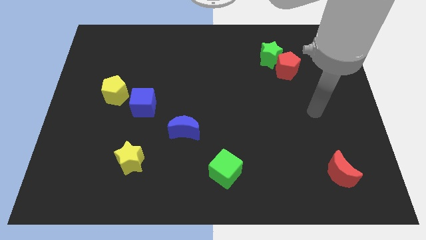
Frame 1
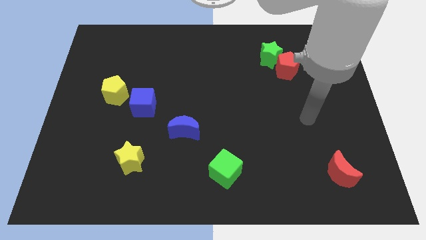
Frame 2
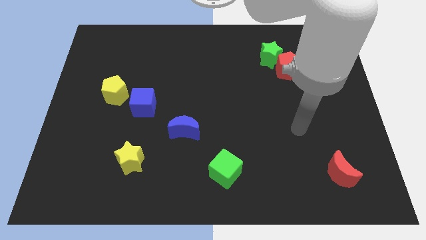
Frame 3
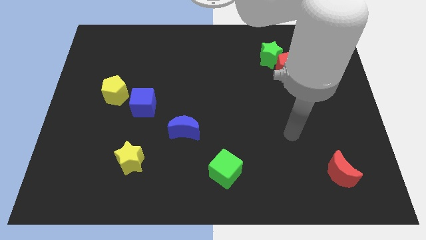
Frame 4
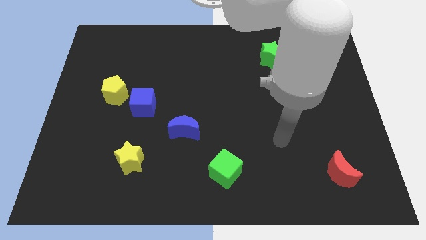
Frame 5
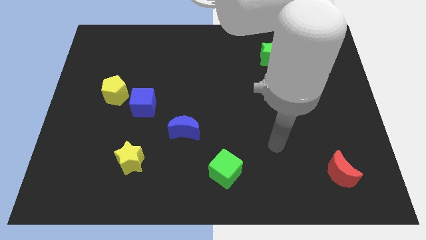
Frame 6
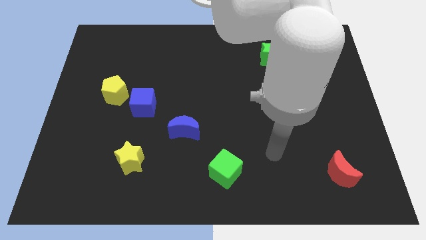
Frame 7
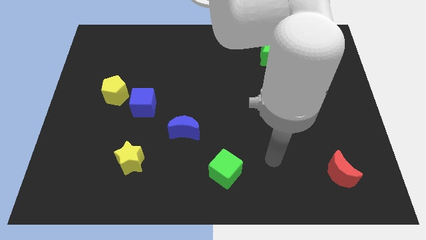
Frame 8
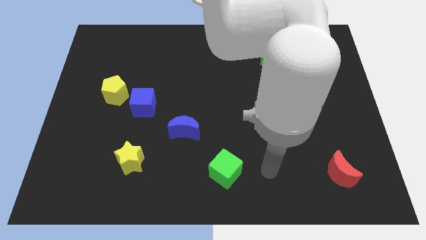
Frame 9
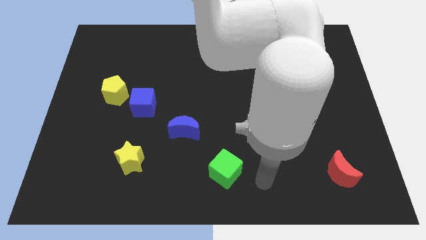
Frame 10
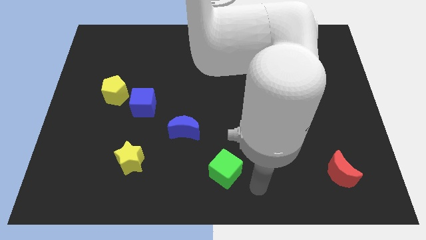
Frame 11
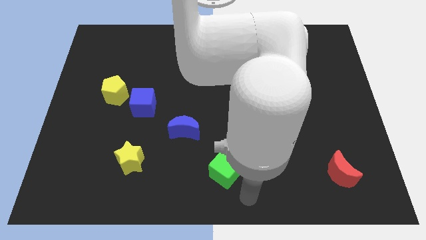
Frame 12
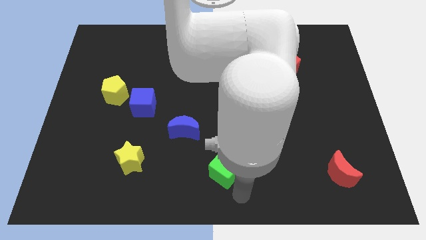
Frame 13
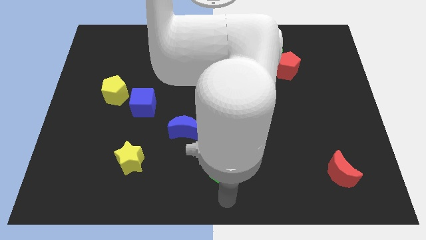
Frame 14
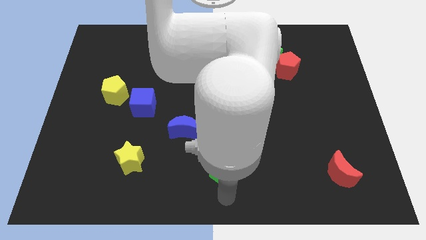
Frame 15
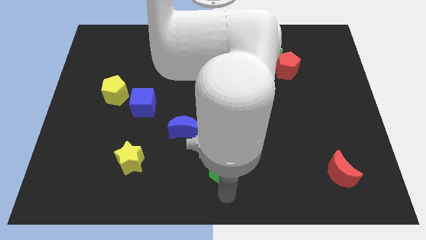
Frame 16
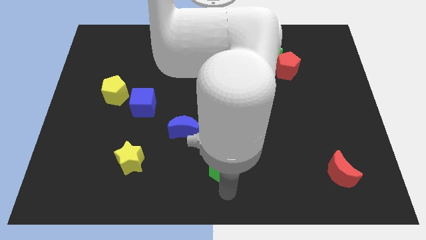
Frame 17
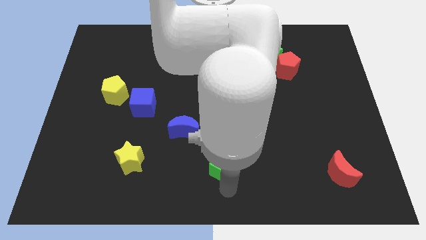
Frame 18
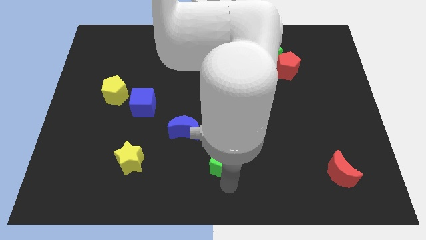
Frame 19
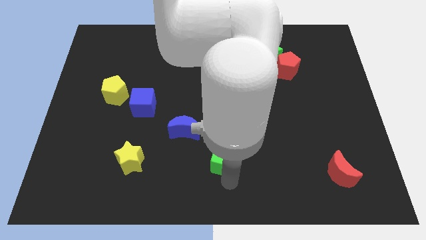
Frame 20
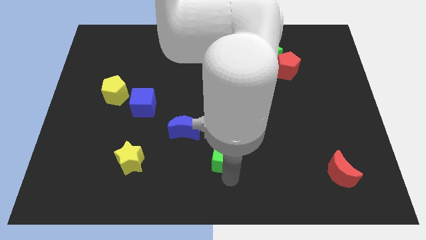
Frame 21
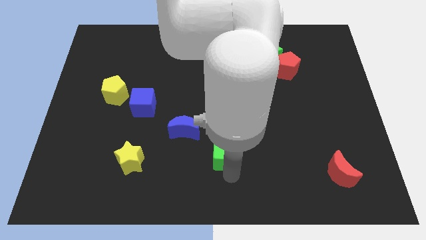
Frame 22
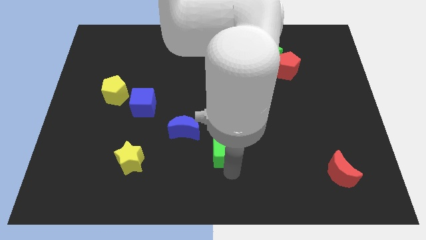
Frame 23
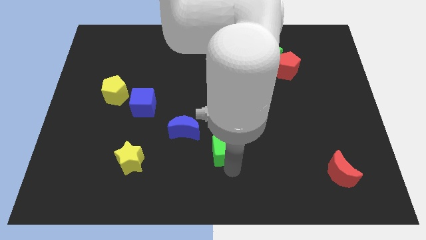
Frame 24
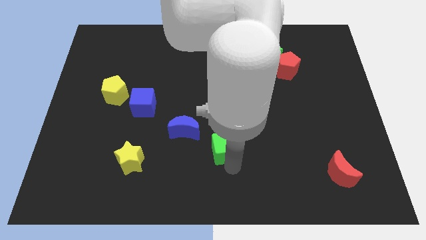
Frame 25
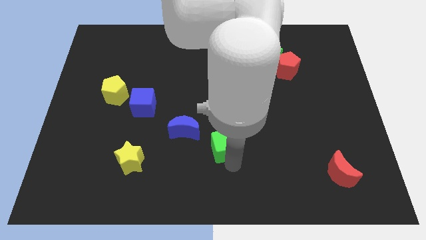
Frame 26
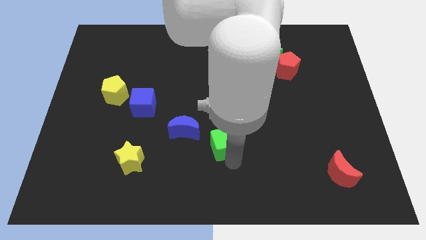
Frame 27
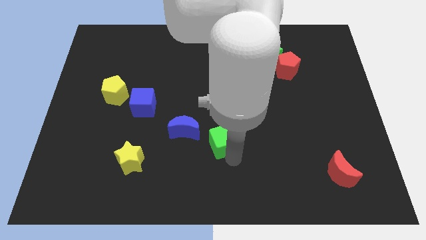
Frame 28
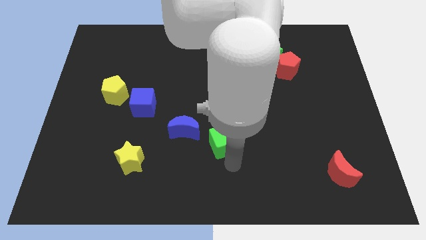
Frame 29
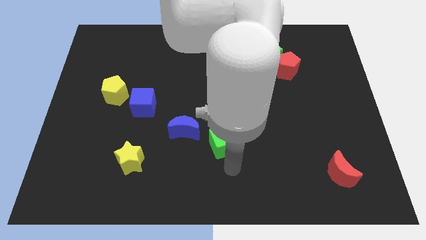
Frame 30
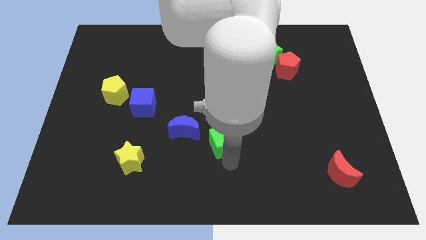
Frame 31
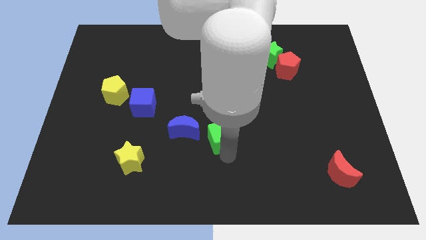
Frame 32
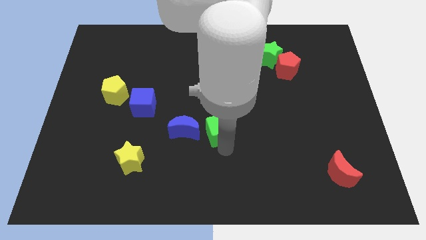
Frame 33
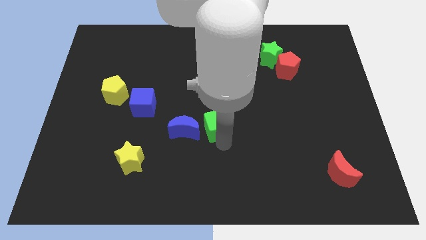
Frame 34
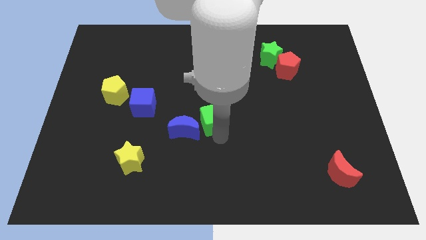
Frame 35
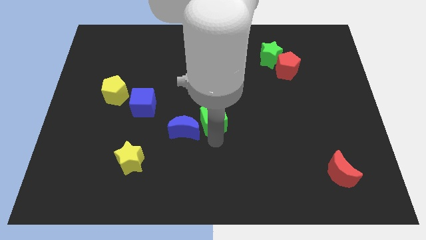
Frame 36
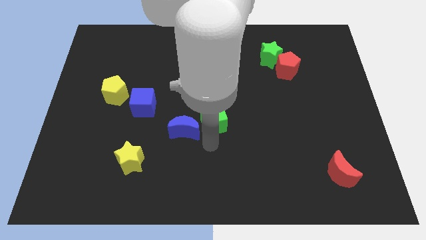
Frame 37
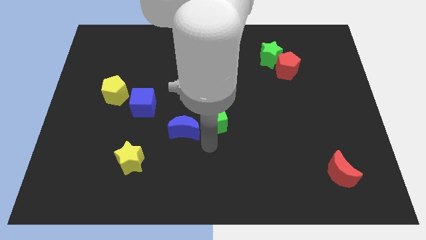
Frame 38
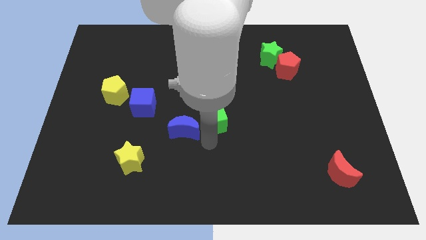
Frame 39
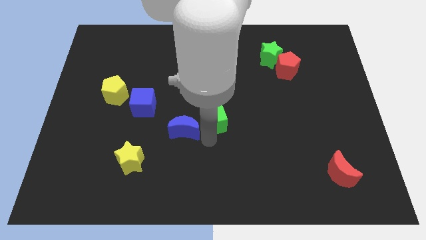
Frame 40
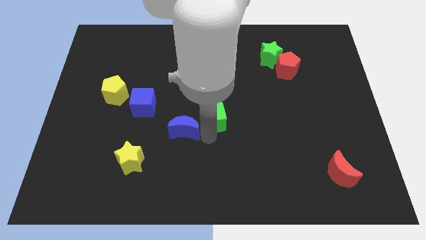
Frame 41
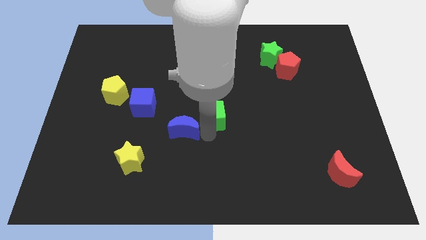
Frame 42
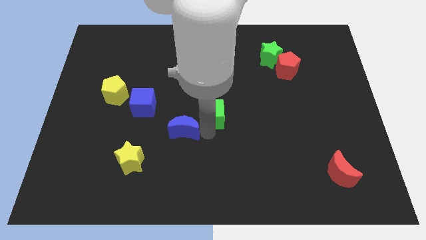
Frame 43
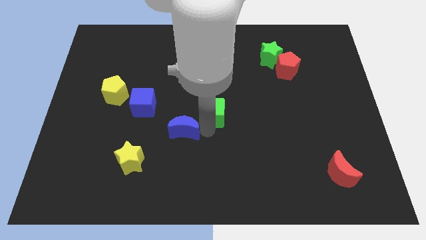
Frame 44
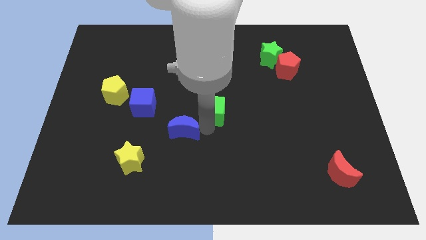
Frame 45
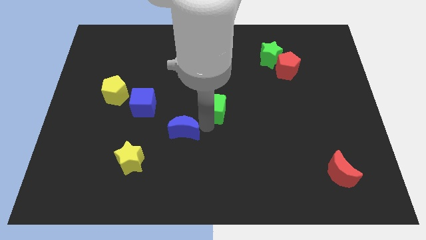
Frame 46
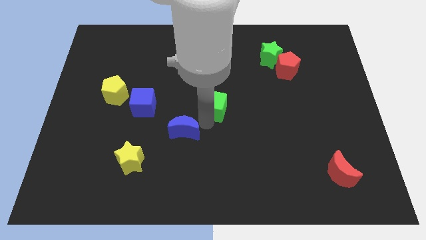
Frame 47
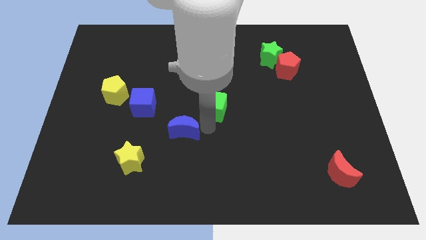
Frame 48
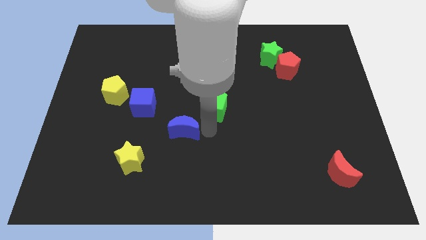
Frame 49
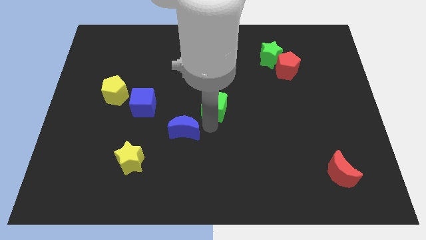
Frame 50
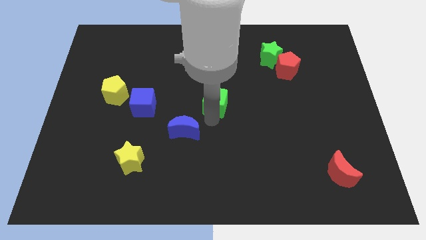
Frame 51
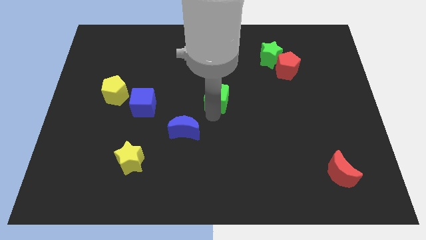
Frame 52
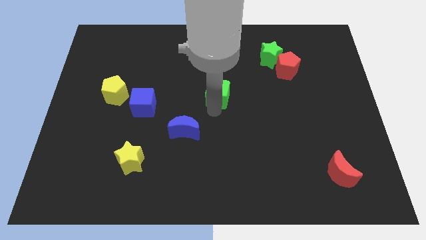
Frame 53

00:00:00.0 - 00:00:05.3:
slide the green cube upwards

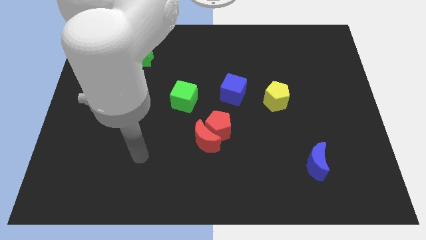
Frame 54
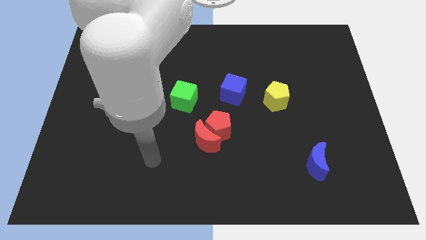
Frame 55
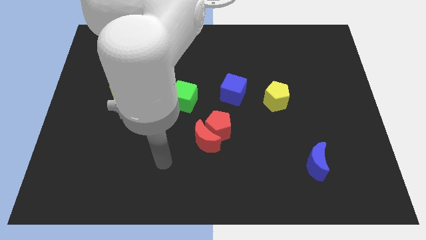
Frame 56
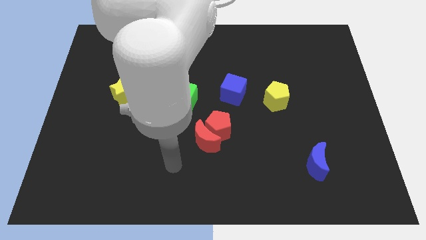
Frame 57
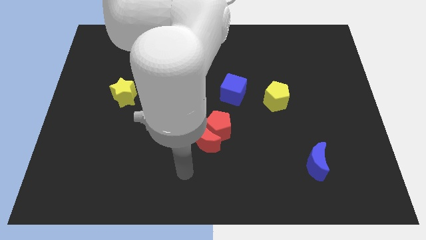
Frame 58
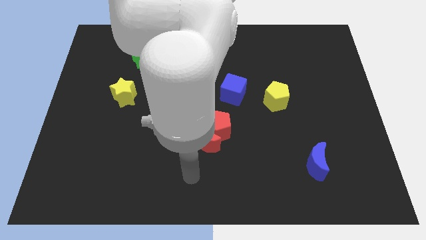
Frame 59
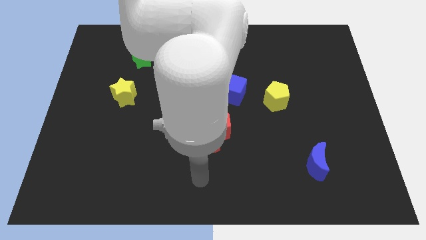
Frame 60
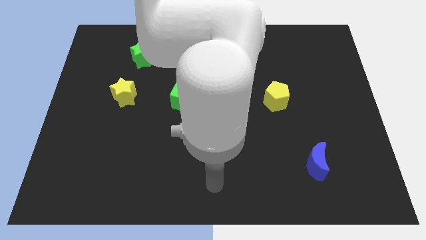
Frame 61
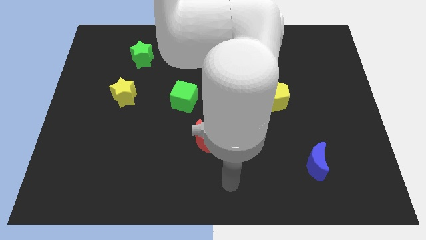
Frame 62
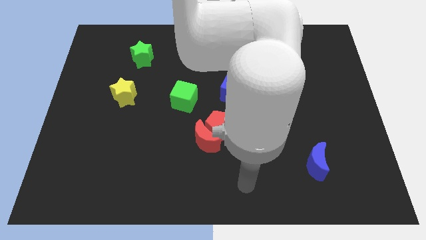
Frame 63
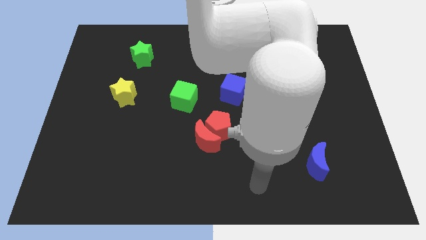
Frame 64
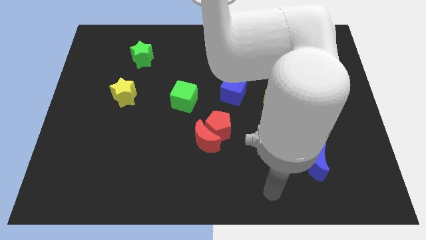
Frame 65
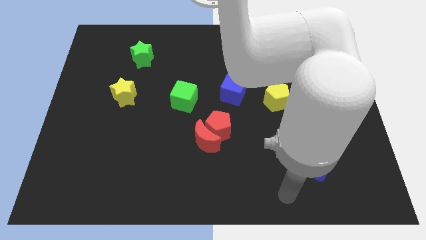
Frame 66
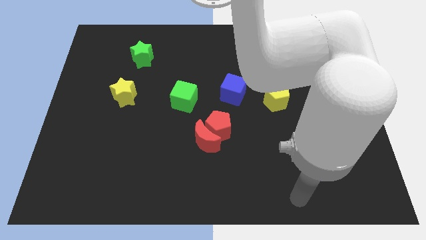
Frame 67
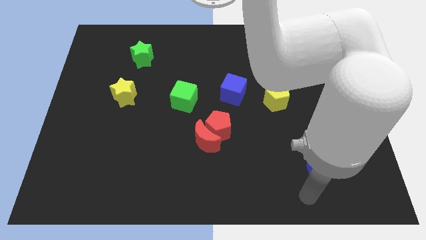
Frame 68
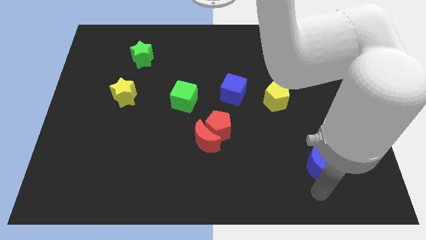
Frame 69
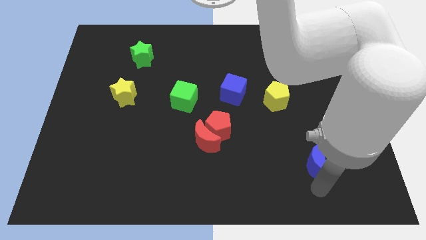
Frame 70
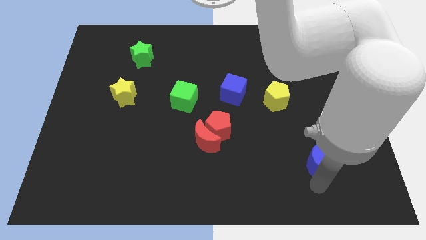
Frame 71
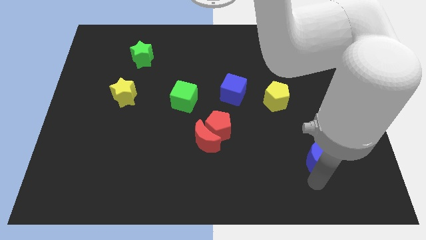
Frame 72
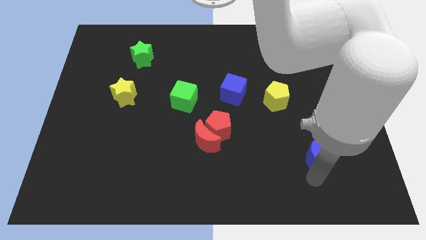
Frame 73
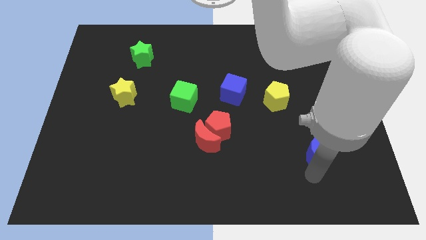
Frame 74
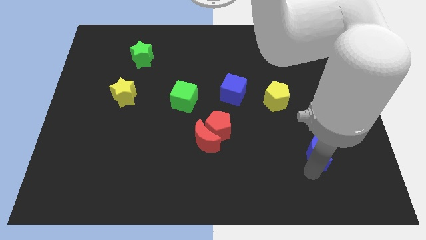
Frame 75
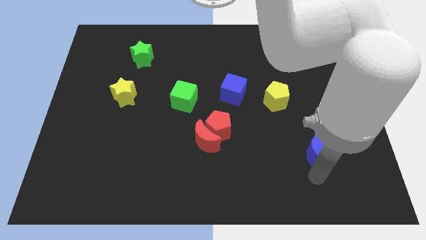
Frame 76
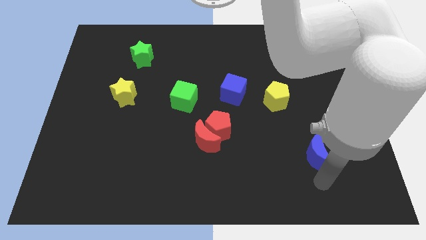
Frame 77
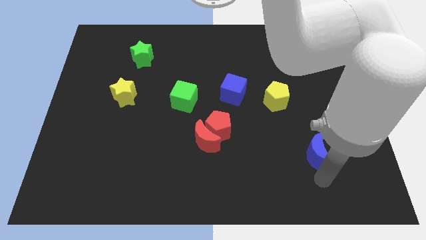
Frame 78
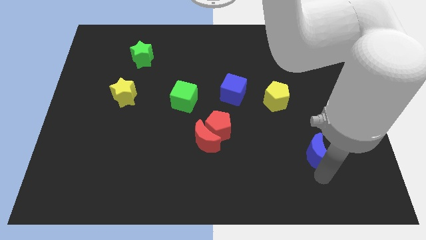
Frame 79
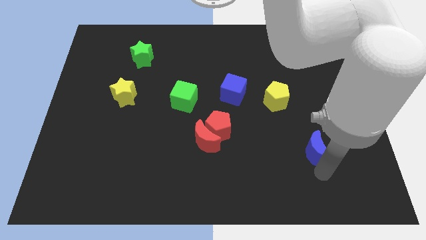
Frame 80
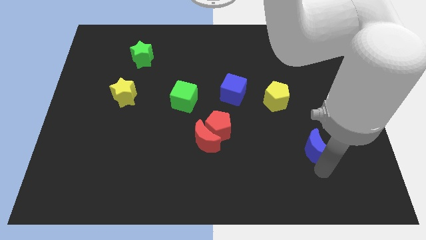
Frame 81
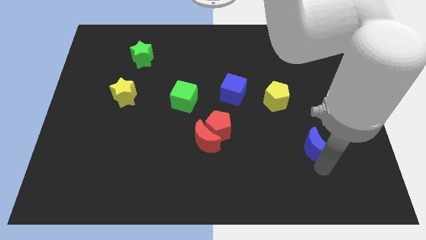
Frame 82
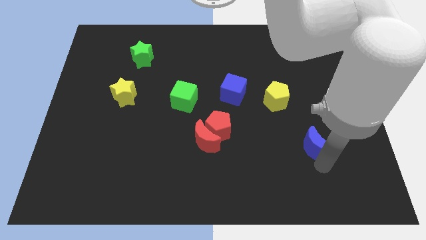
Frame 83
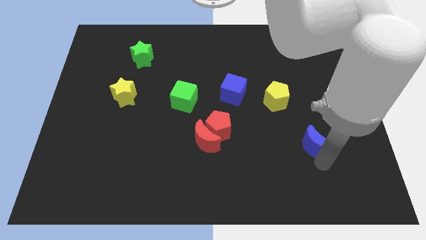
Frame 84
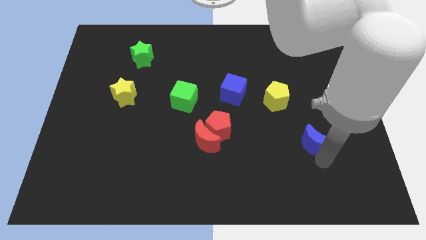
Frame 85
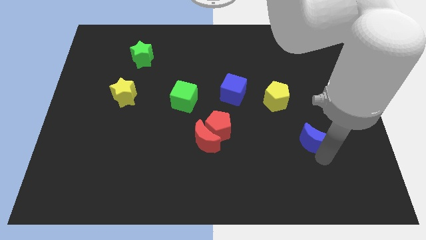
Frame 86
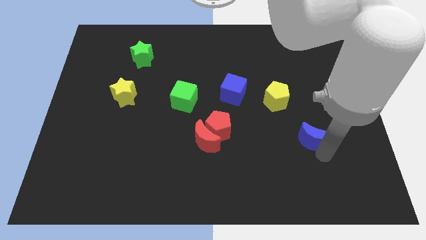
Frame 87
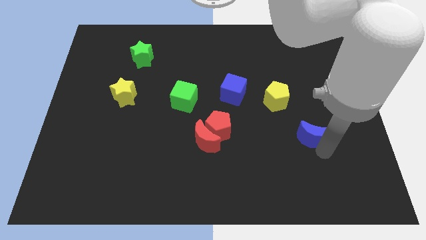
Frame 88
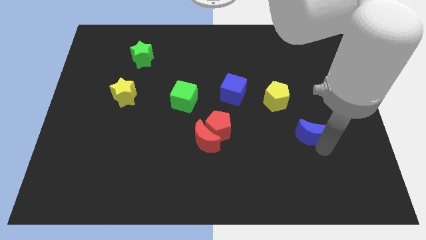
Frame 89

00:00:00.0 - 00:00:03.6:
slightly move the blue moon upwards
